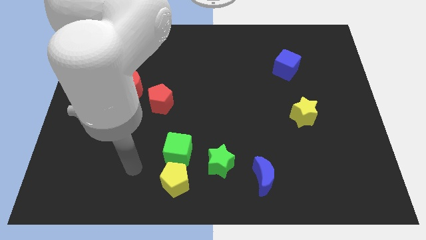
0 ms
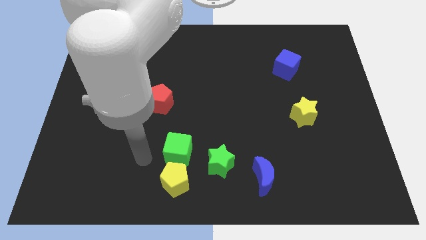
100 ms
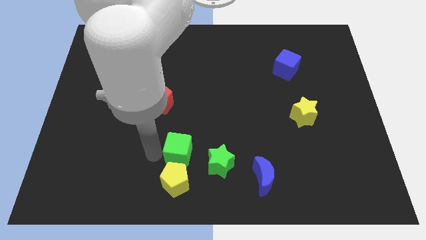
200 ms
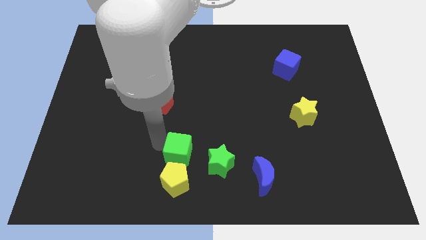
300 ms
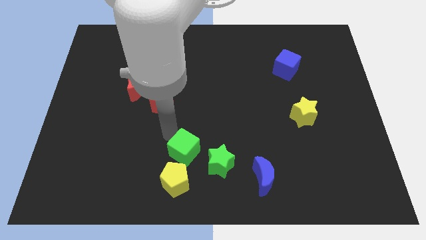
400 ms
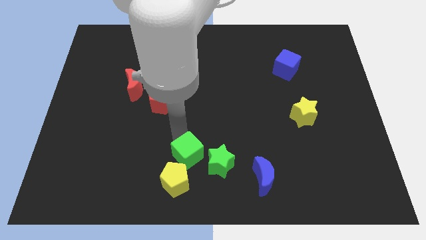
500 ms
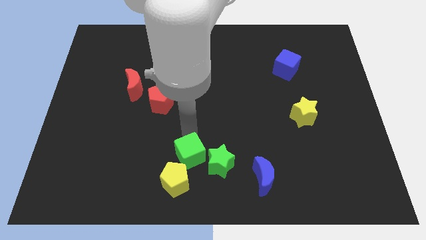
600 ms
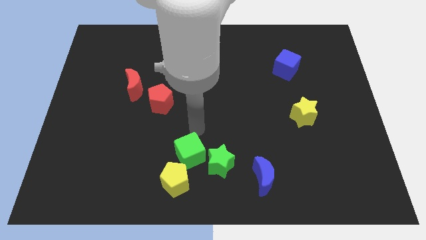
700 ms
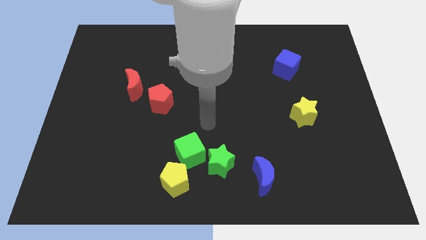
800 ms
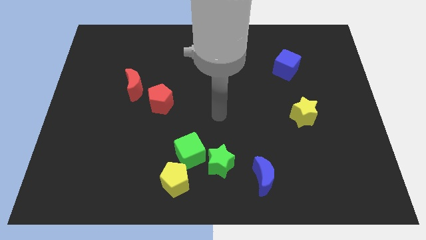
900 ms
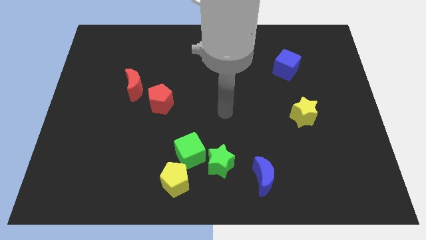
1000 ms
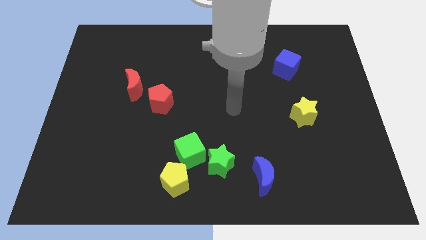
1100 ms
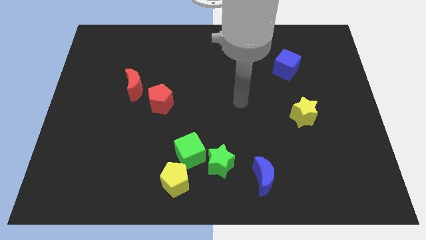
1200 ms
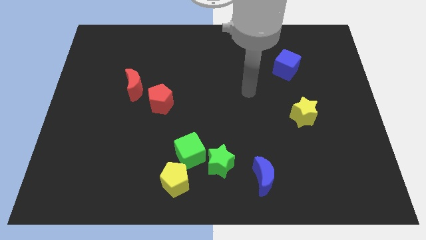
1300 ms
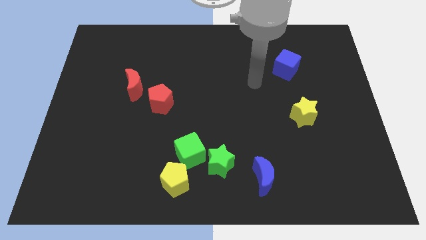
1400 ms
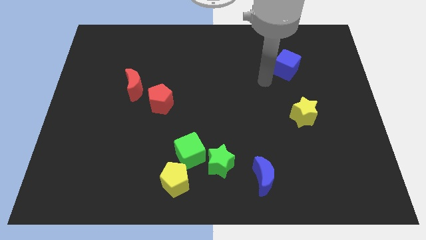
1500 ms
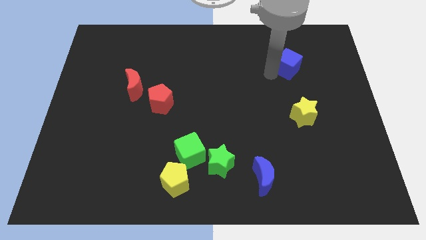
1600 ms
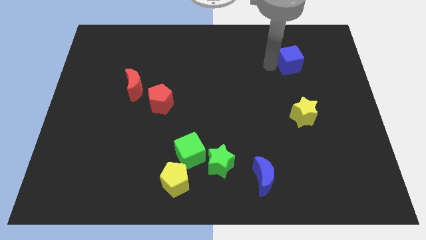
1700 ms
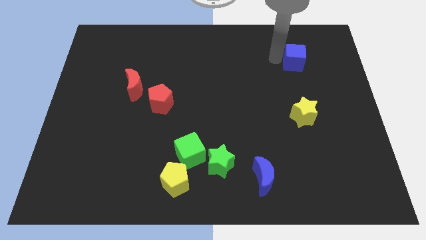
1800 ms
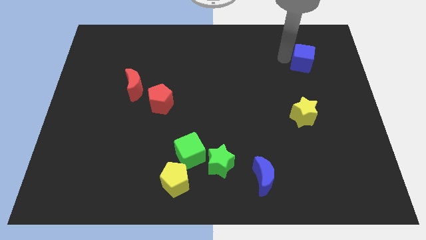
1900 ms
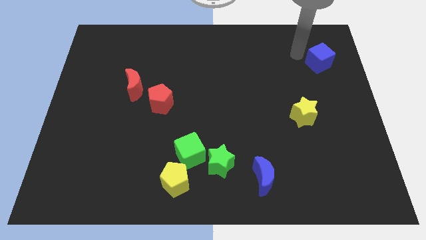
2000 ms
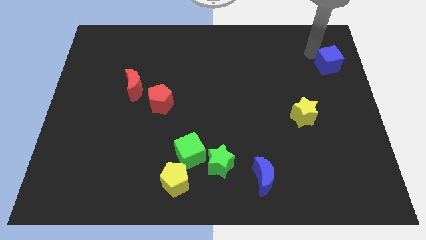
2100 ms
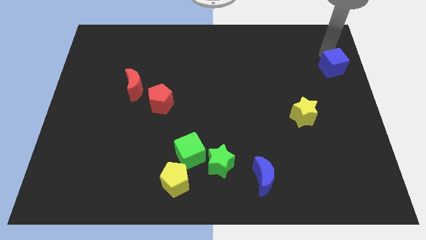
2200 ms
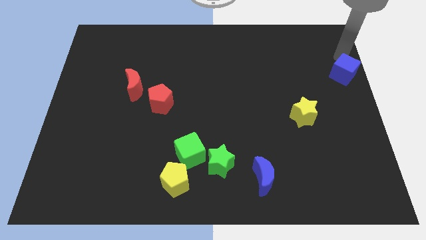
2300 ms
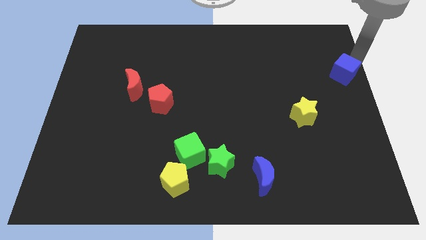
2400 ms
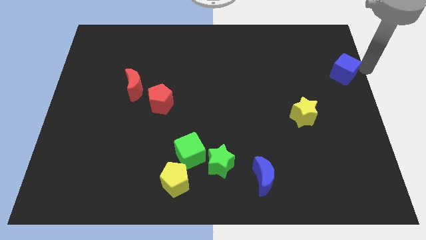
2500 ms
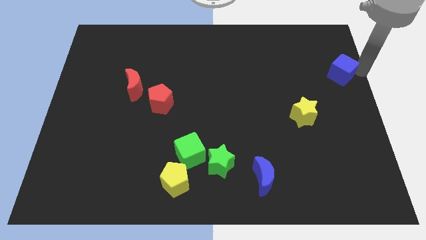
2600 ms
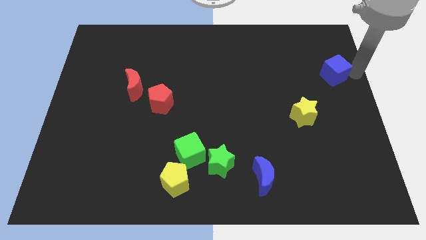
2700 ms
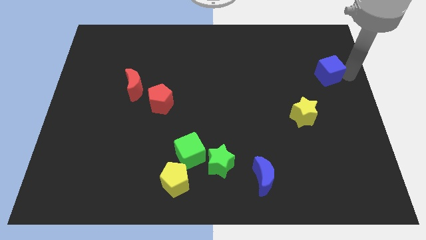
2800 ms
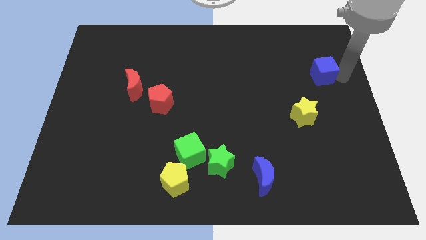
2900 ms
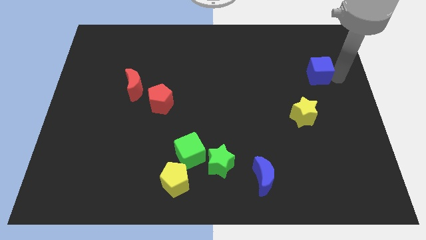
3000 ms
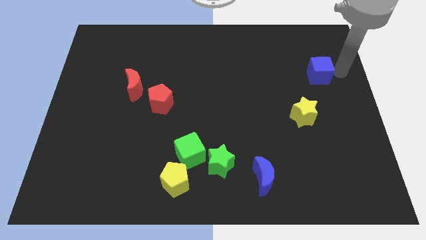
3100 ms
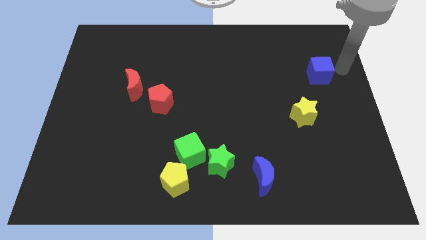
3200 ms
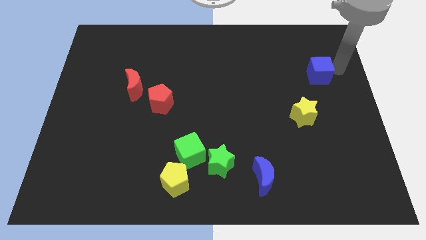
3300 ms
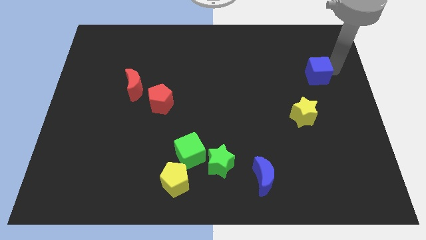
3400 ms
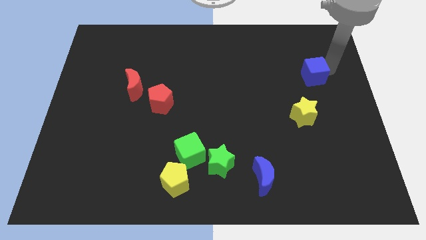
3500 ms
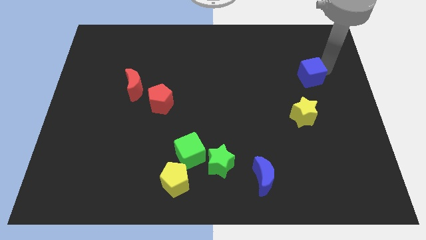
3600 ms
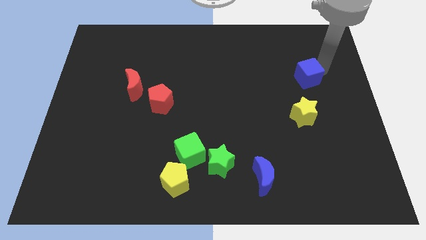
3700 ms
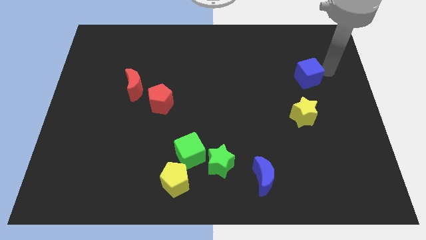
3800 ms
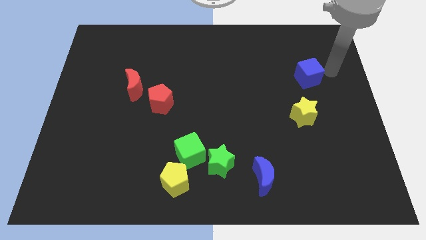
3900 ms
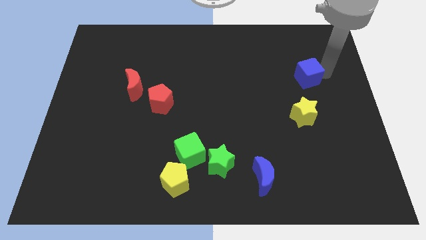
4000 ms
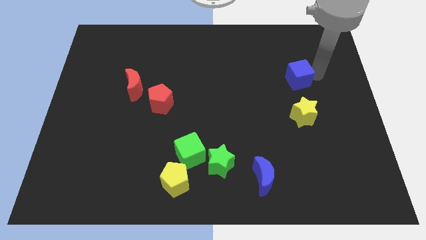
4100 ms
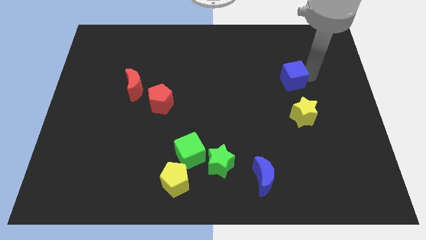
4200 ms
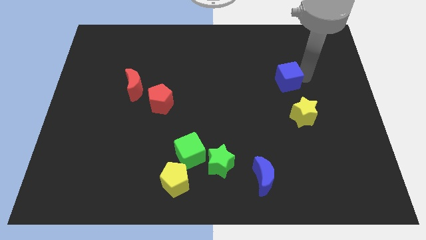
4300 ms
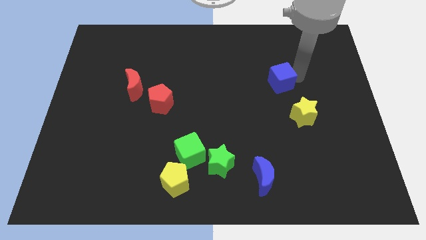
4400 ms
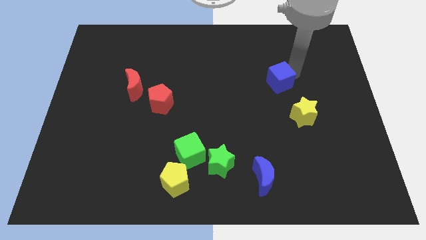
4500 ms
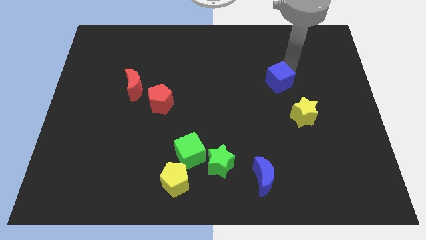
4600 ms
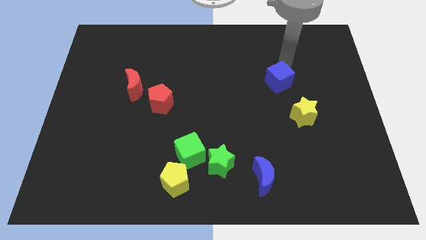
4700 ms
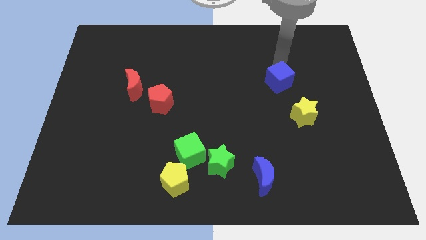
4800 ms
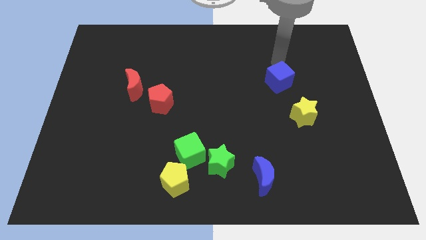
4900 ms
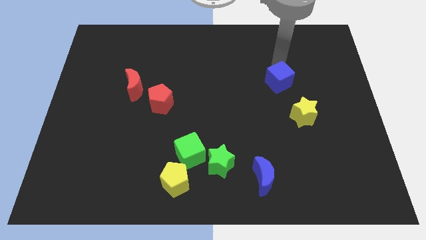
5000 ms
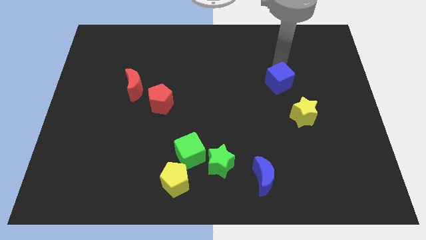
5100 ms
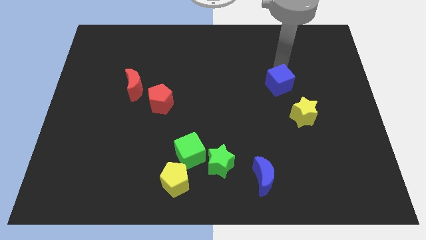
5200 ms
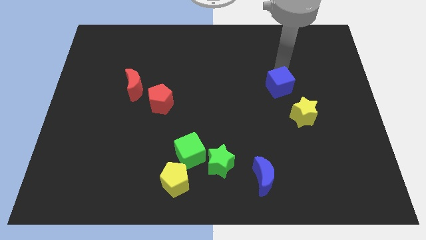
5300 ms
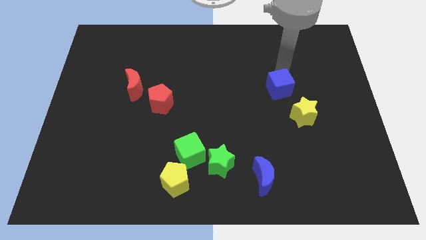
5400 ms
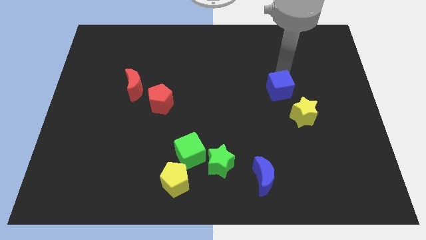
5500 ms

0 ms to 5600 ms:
slide the blue cube downwards slightly

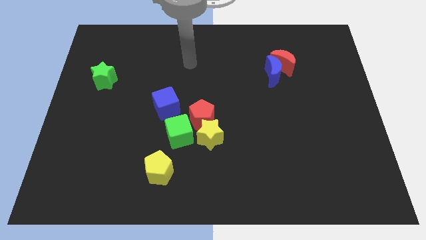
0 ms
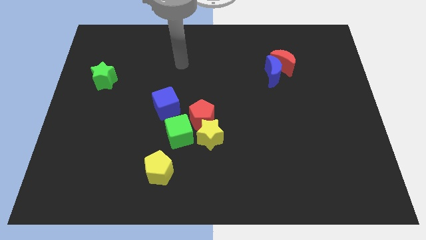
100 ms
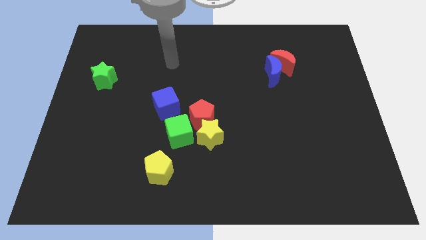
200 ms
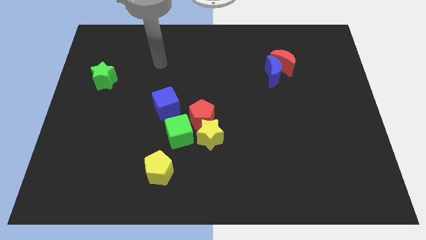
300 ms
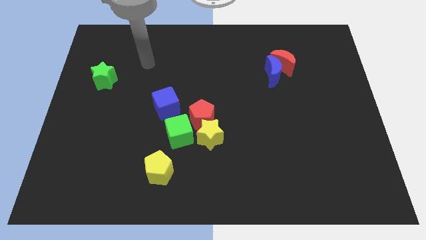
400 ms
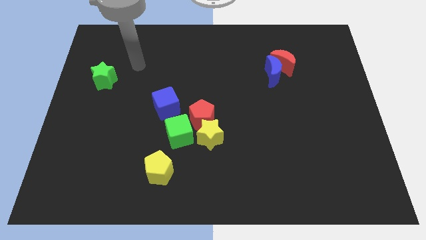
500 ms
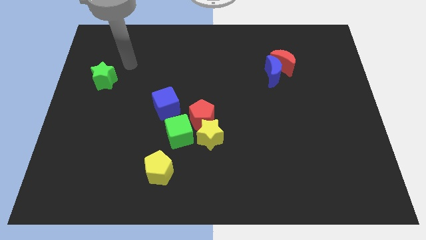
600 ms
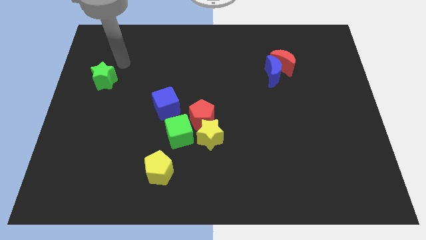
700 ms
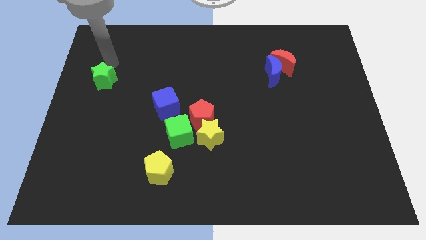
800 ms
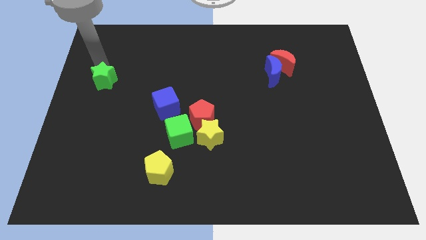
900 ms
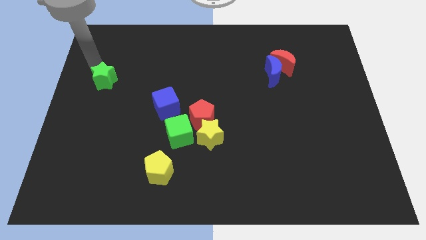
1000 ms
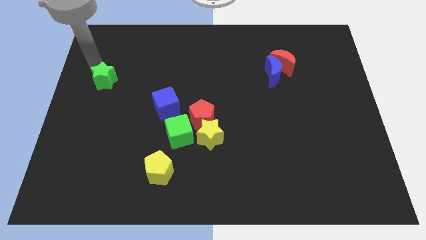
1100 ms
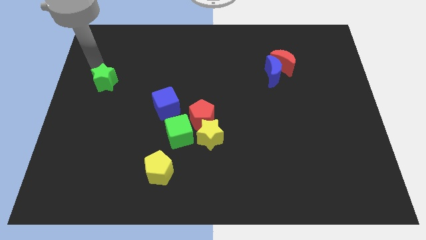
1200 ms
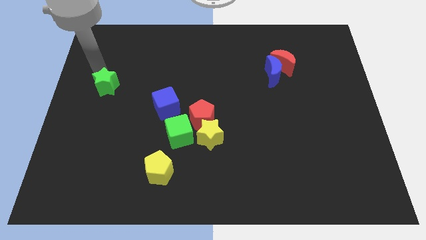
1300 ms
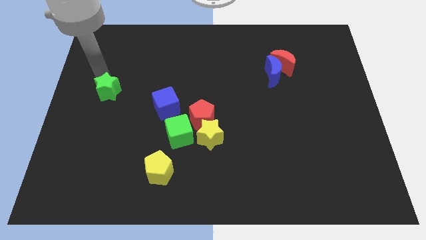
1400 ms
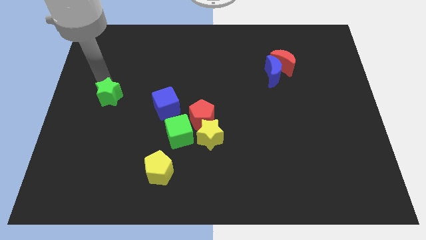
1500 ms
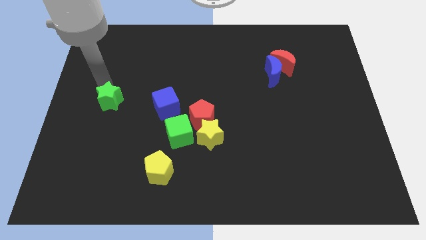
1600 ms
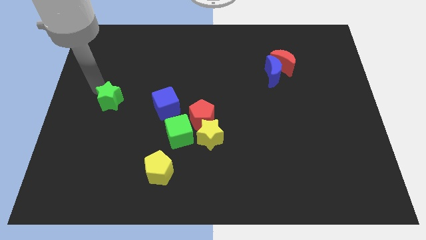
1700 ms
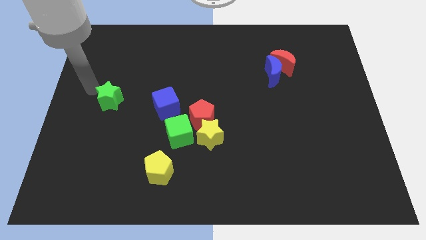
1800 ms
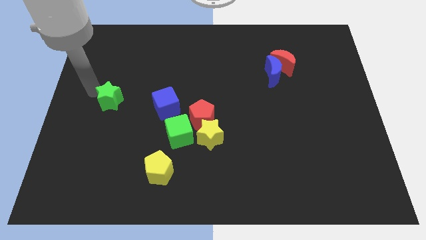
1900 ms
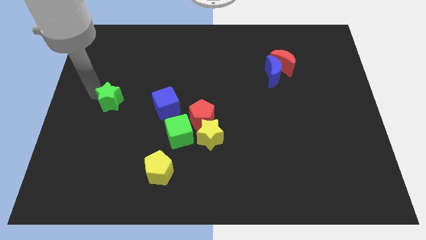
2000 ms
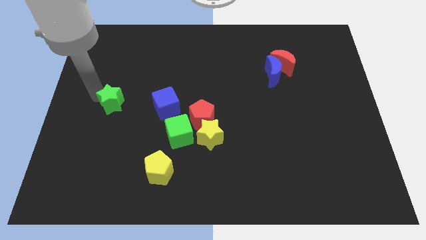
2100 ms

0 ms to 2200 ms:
move the green star downwards and then right a little

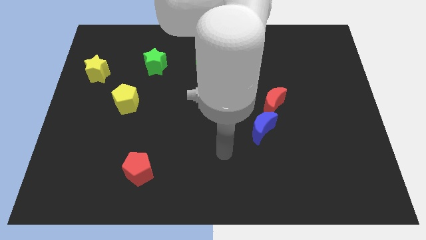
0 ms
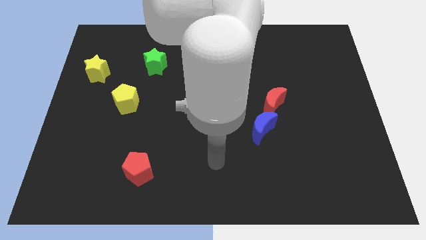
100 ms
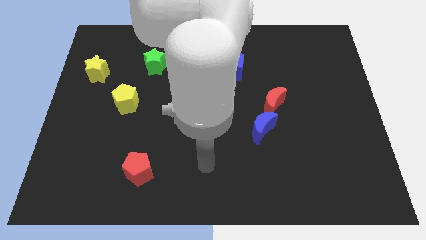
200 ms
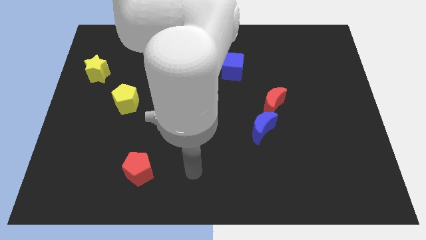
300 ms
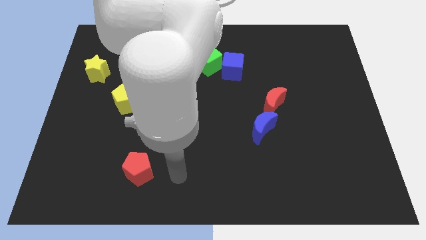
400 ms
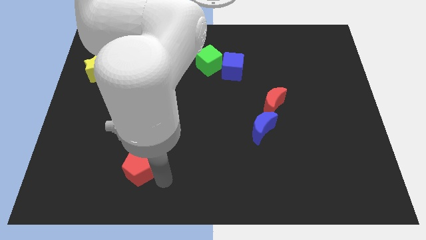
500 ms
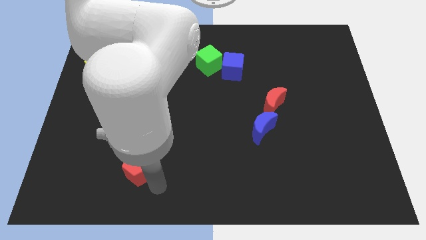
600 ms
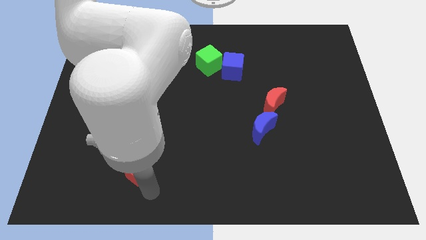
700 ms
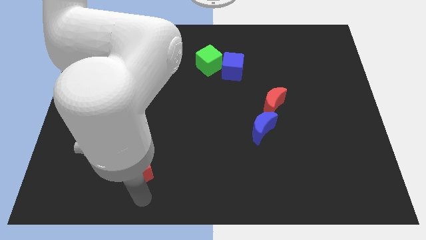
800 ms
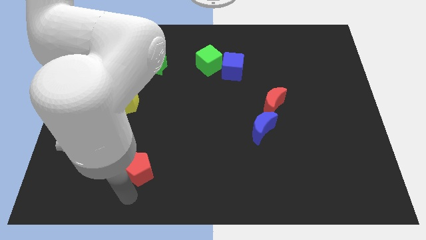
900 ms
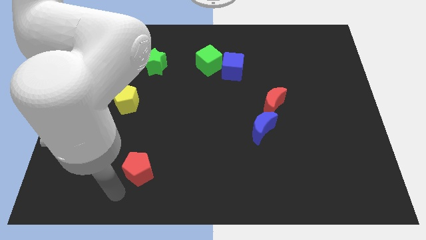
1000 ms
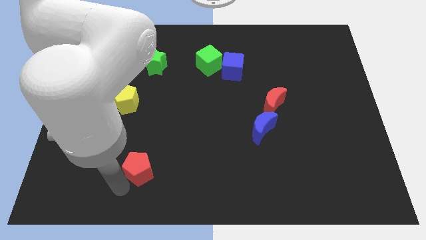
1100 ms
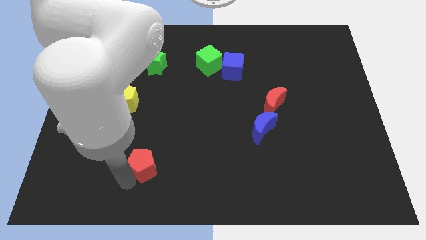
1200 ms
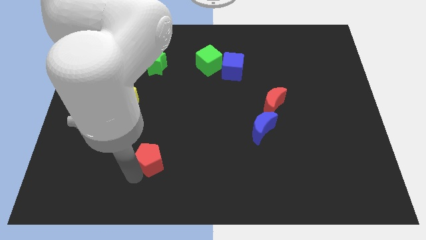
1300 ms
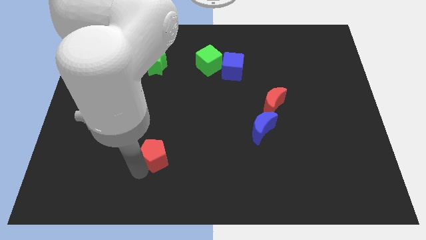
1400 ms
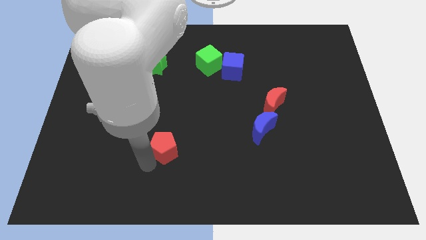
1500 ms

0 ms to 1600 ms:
slide the red pentagon a bit diagonally up and right
